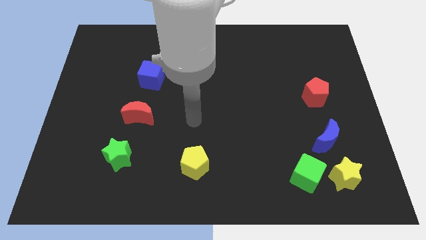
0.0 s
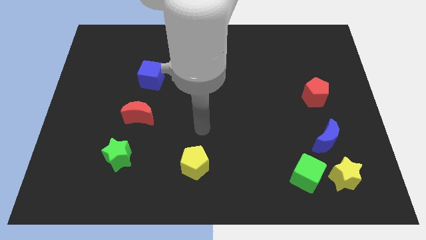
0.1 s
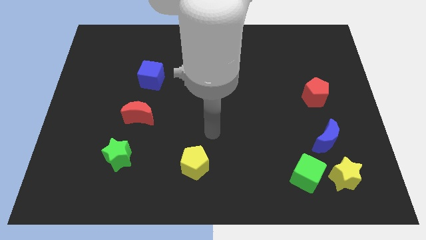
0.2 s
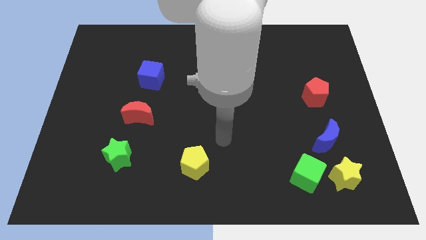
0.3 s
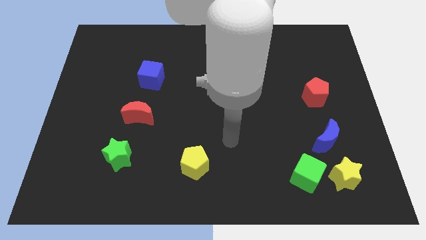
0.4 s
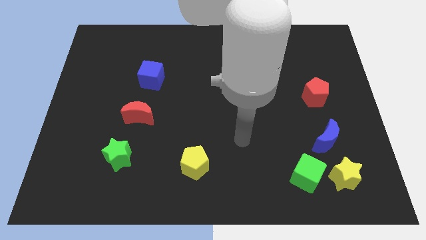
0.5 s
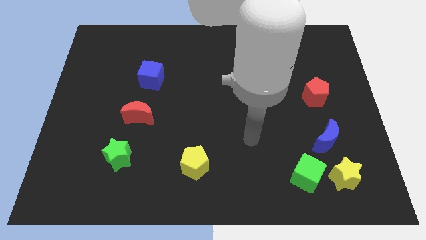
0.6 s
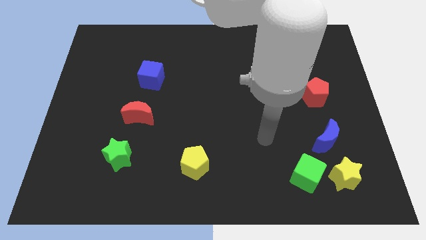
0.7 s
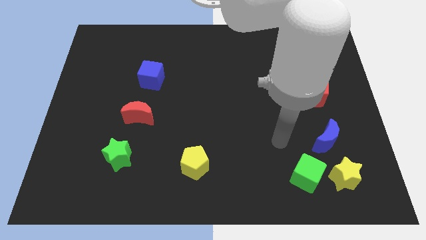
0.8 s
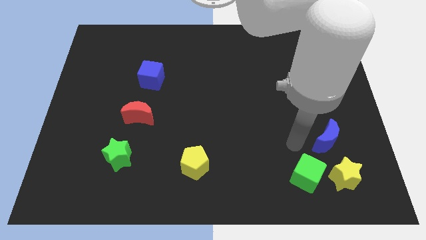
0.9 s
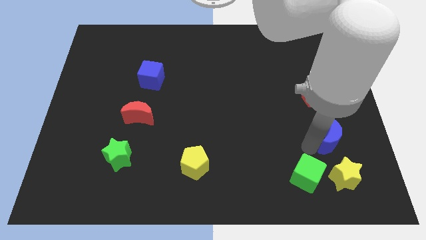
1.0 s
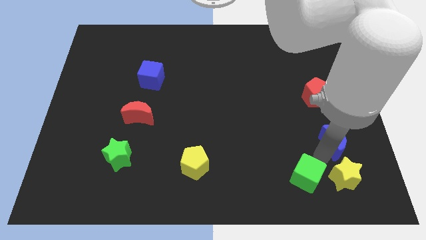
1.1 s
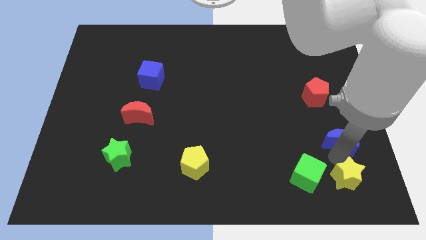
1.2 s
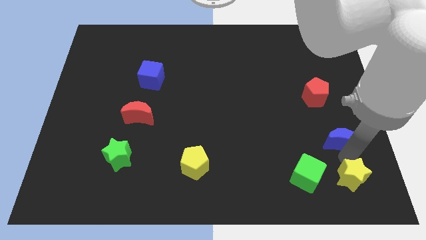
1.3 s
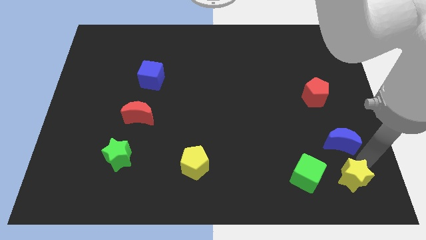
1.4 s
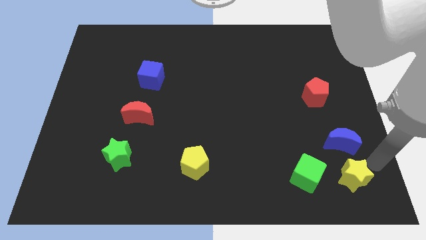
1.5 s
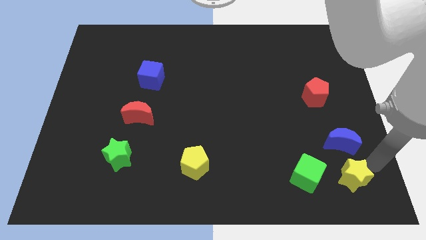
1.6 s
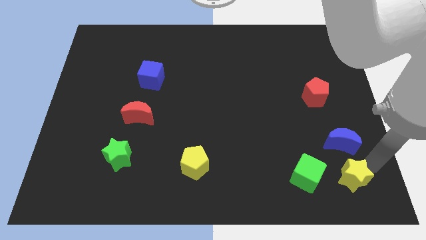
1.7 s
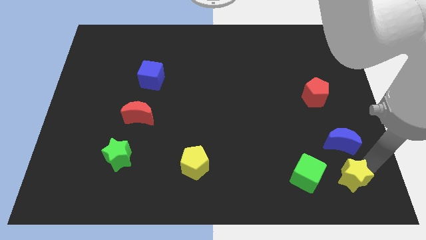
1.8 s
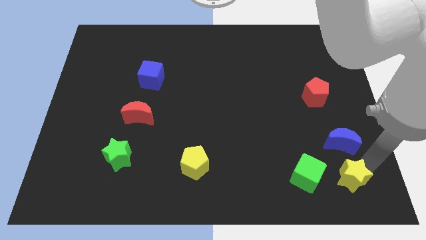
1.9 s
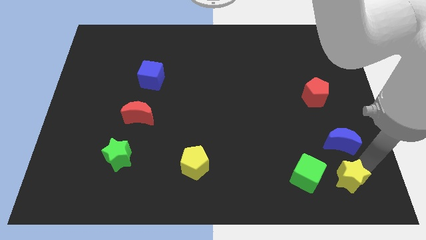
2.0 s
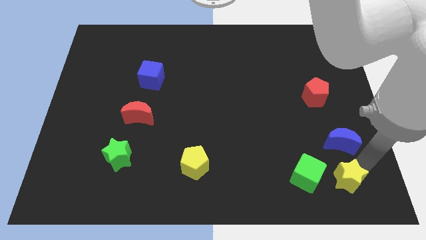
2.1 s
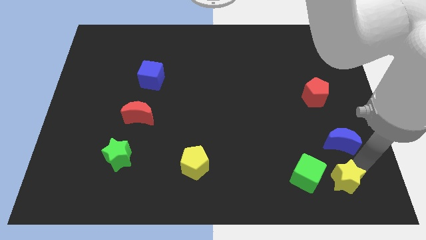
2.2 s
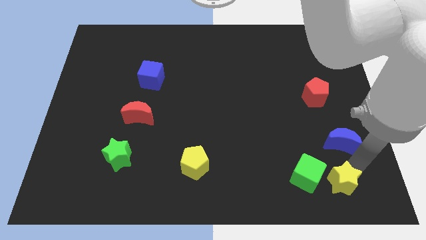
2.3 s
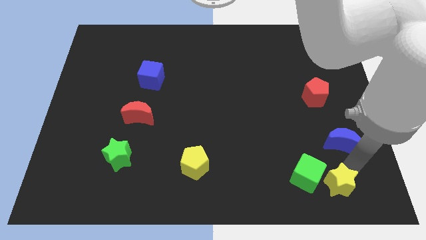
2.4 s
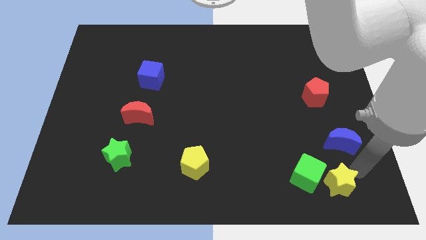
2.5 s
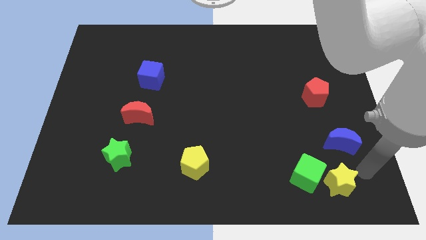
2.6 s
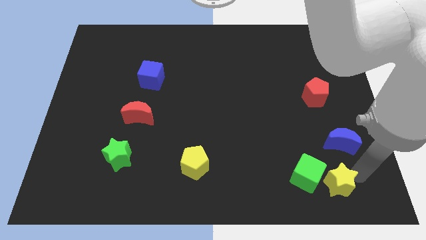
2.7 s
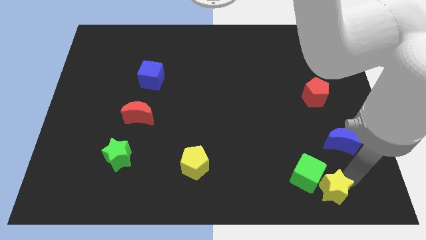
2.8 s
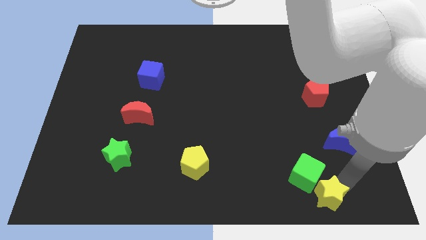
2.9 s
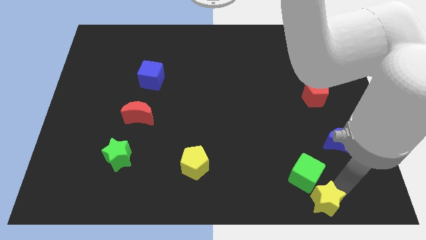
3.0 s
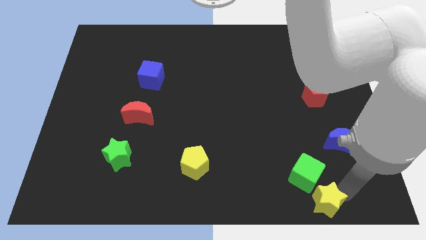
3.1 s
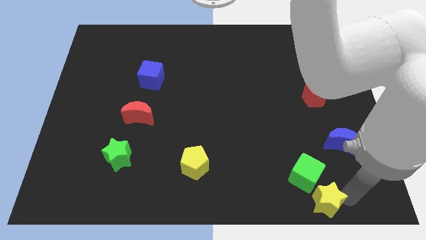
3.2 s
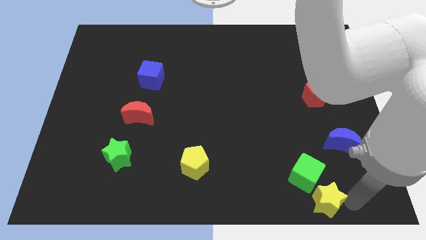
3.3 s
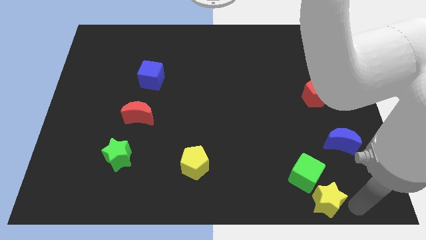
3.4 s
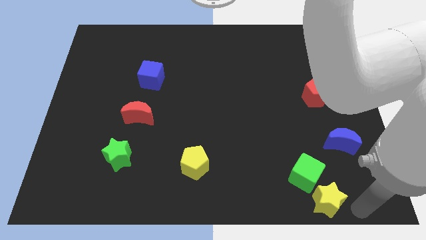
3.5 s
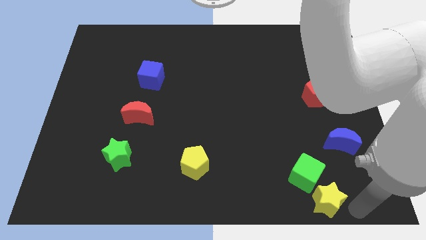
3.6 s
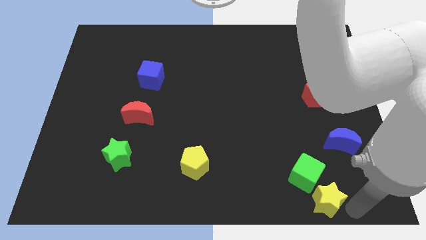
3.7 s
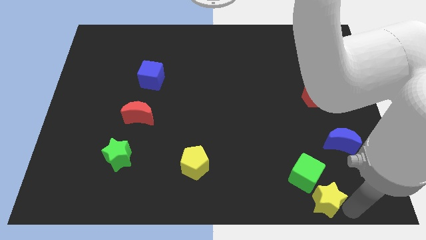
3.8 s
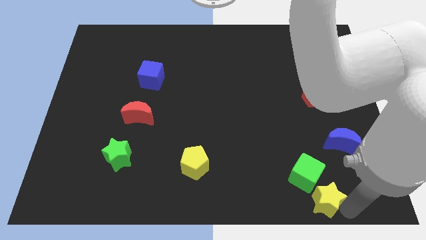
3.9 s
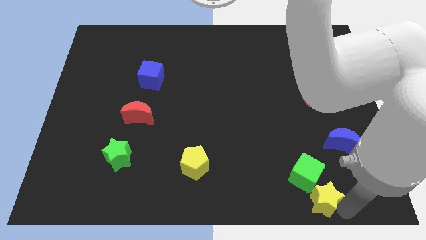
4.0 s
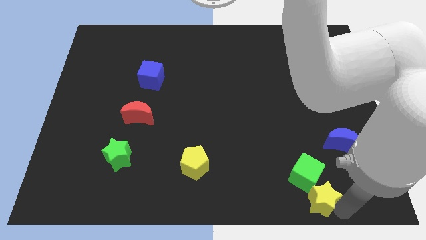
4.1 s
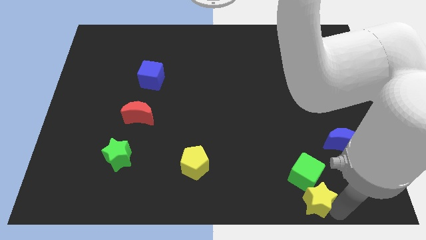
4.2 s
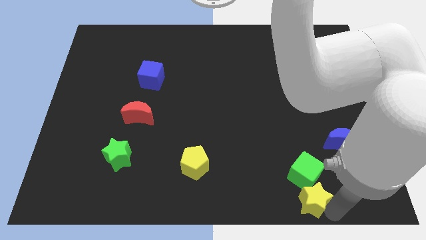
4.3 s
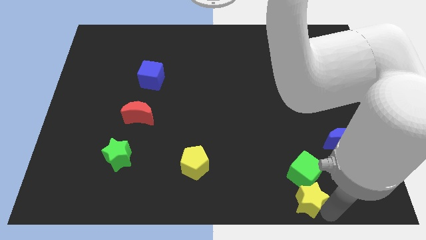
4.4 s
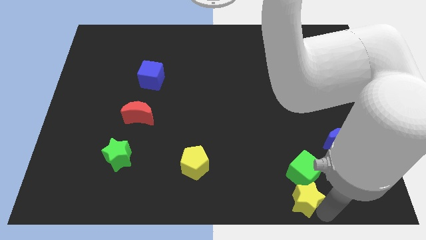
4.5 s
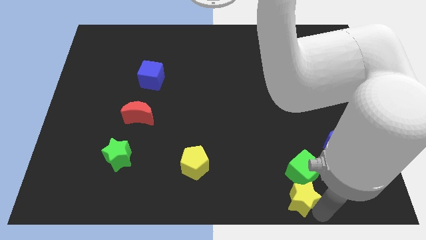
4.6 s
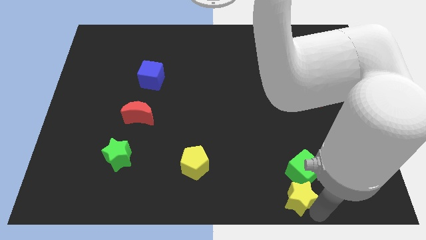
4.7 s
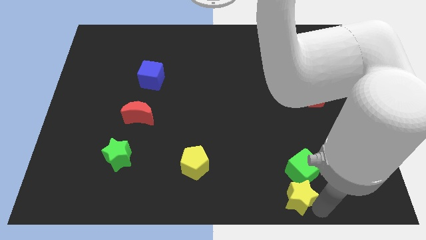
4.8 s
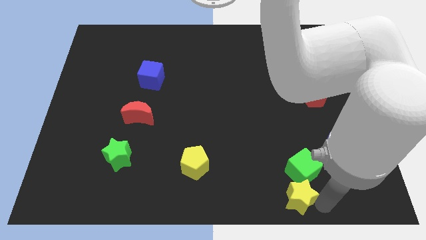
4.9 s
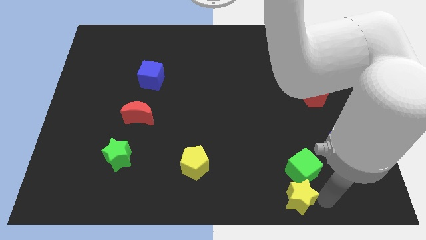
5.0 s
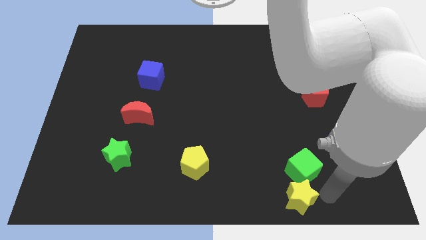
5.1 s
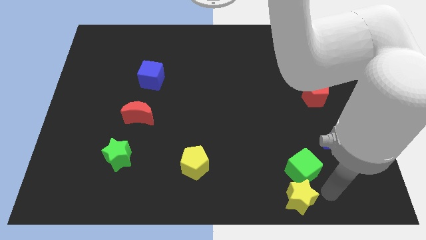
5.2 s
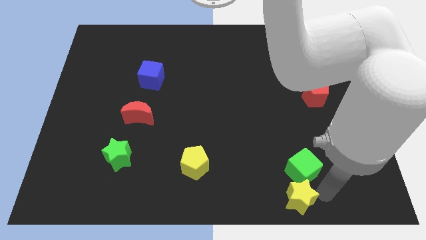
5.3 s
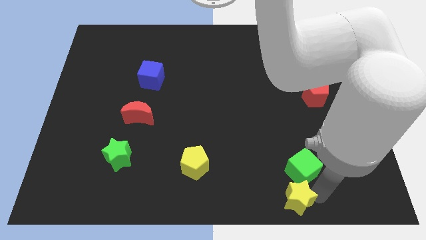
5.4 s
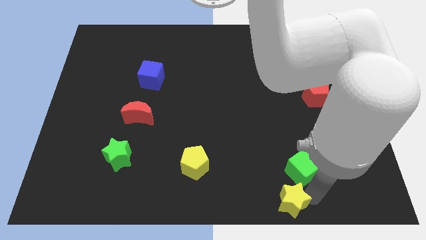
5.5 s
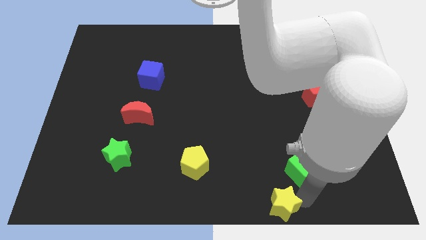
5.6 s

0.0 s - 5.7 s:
move the yellow star to the bottom
